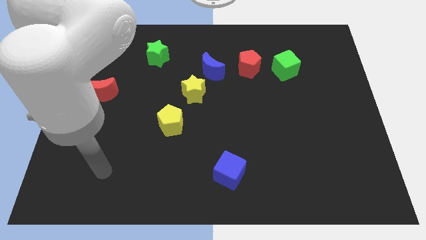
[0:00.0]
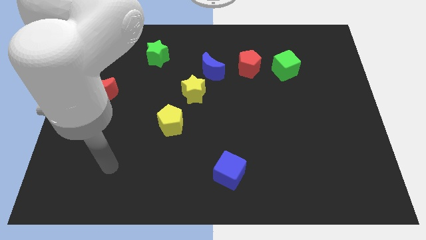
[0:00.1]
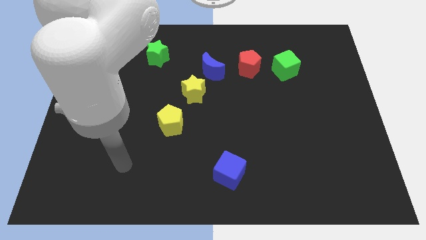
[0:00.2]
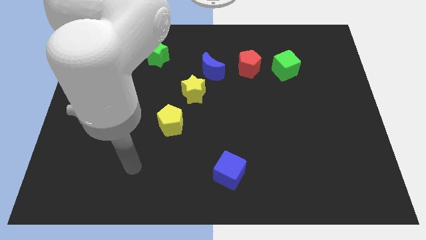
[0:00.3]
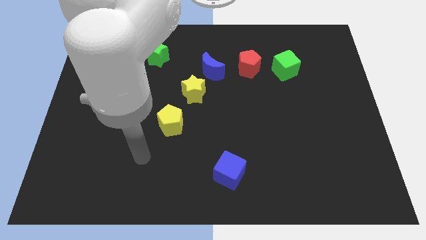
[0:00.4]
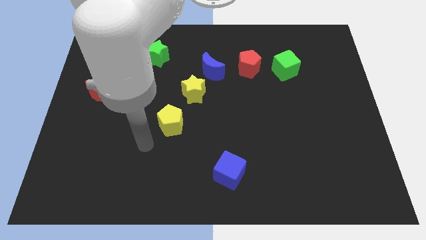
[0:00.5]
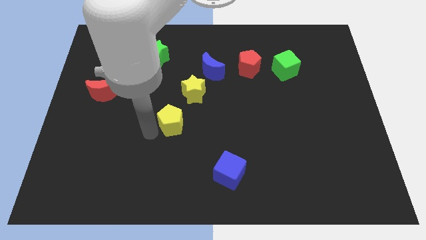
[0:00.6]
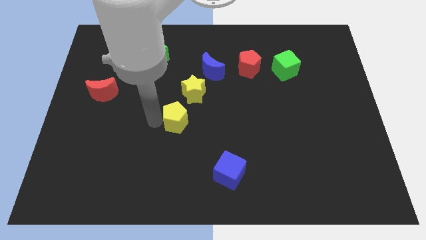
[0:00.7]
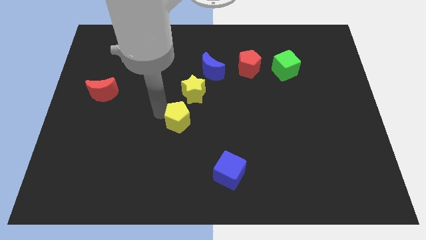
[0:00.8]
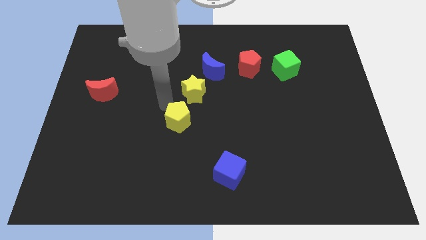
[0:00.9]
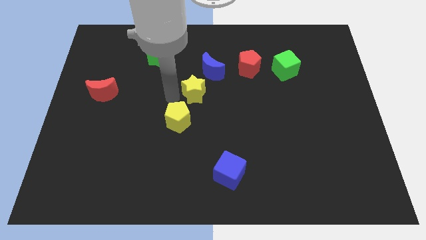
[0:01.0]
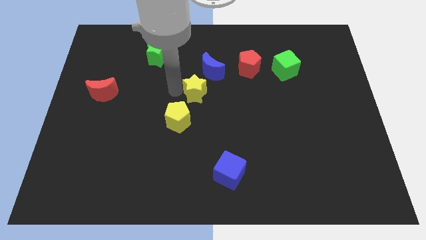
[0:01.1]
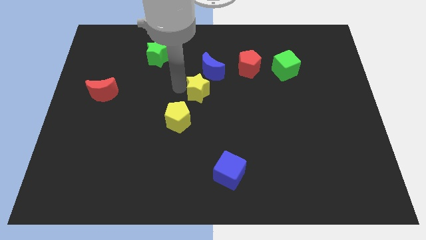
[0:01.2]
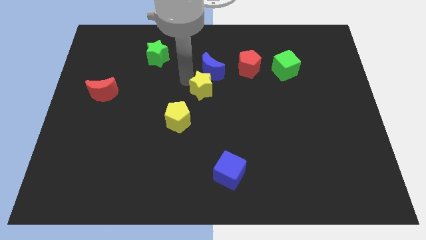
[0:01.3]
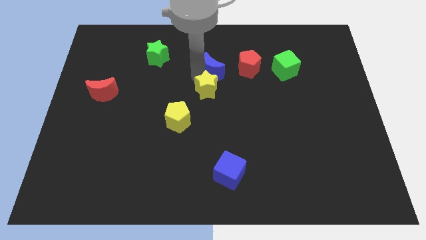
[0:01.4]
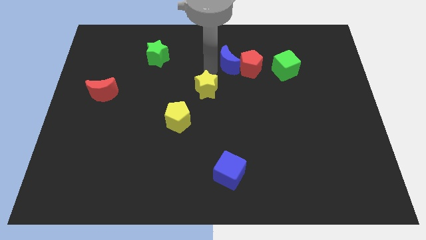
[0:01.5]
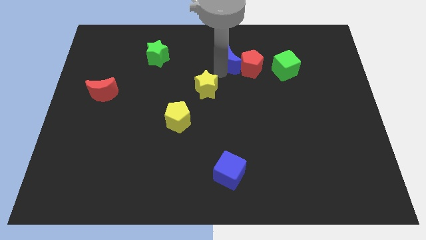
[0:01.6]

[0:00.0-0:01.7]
pull the yellow star apart from the blue moon

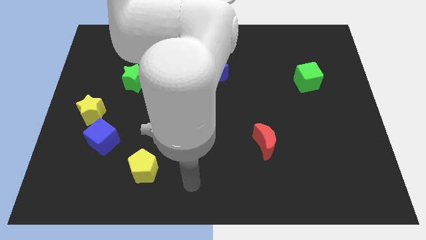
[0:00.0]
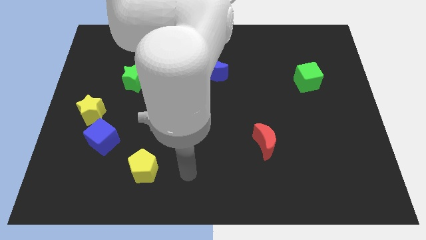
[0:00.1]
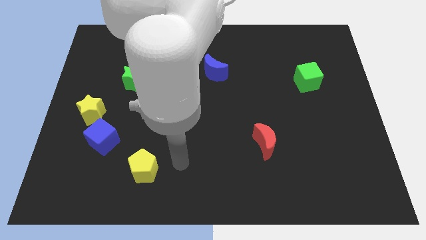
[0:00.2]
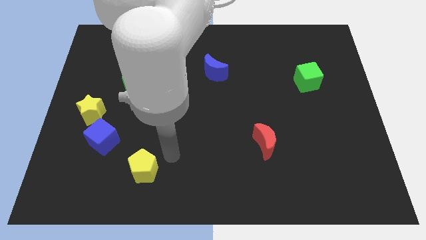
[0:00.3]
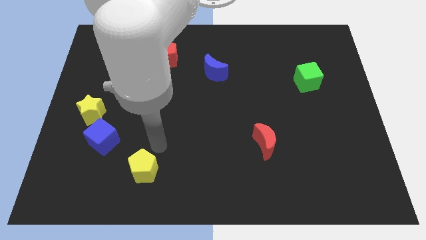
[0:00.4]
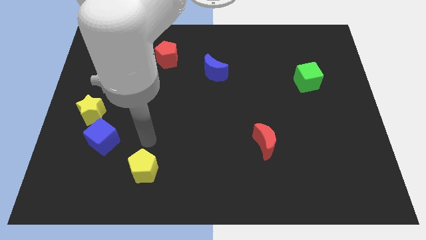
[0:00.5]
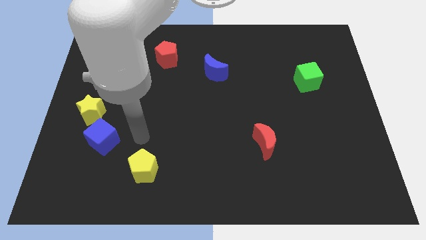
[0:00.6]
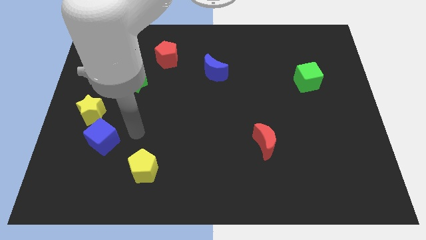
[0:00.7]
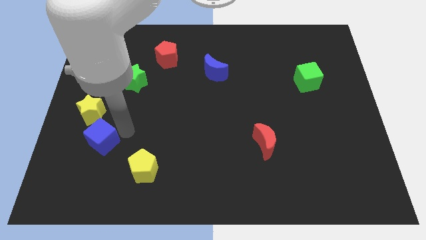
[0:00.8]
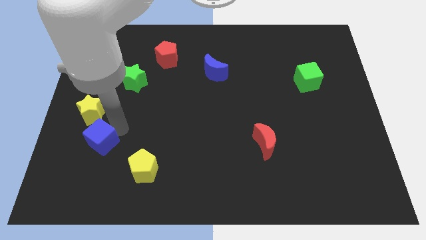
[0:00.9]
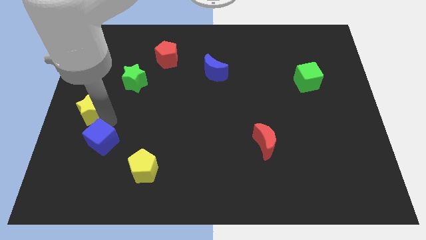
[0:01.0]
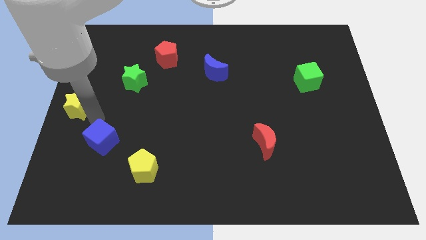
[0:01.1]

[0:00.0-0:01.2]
separate the blue cube from the yellow star

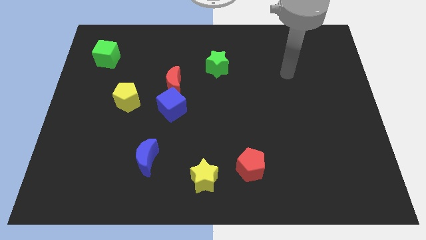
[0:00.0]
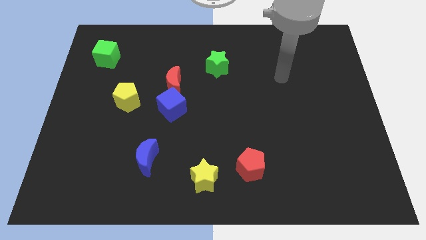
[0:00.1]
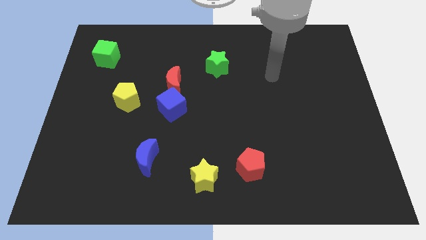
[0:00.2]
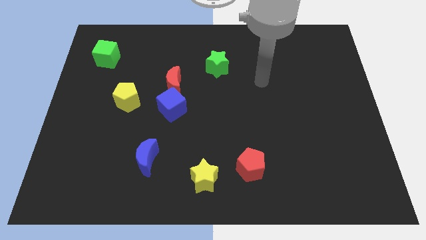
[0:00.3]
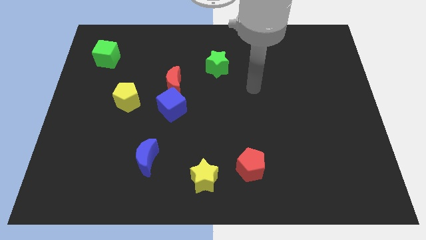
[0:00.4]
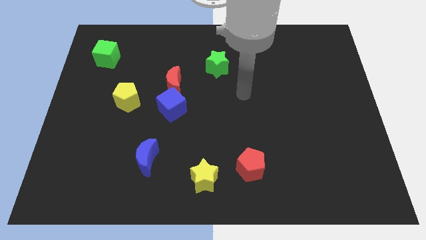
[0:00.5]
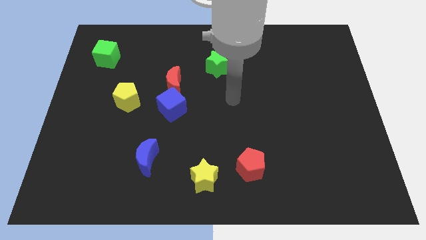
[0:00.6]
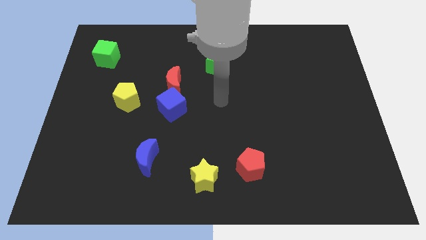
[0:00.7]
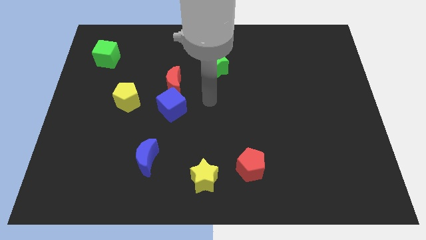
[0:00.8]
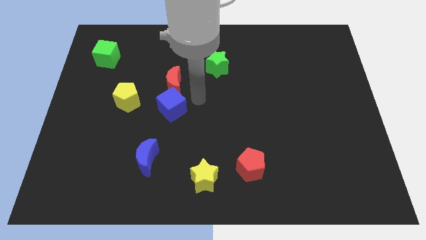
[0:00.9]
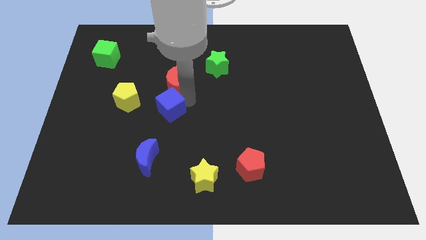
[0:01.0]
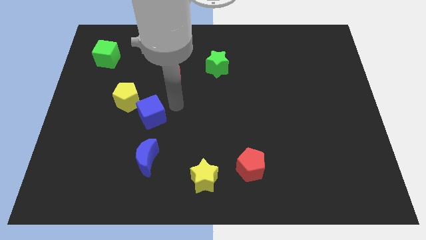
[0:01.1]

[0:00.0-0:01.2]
pull the red moon apart from the blue cube

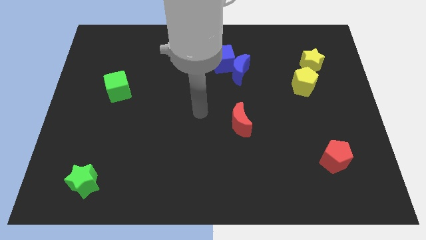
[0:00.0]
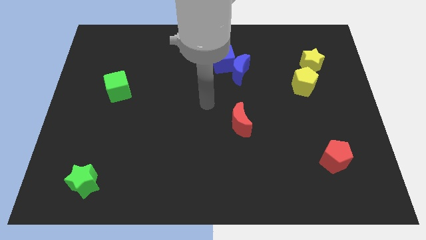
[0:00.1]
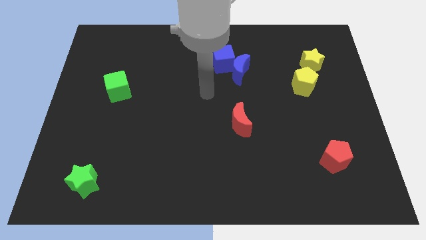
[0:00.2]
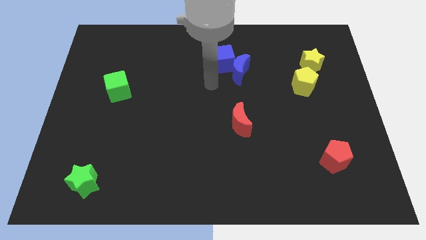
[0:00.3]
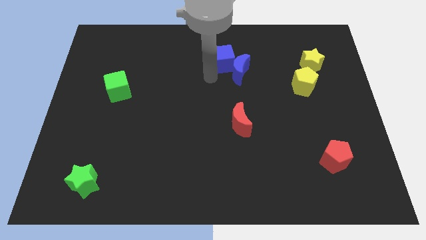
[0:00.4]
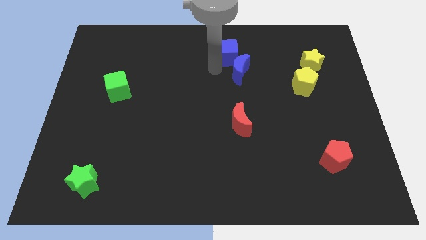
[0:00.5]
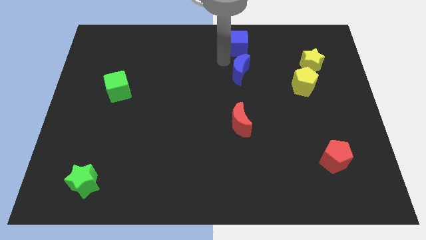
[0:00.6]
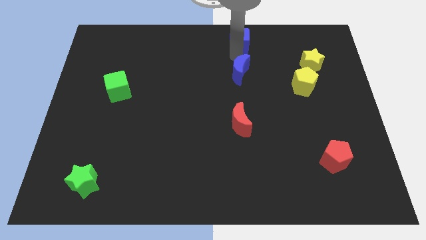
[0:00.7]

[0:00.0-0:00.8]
move the blue moon away from the blue cube

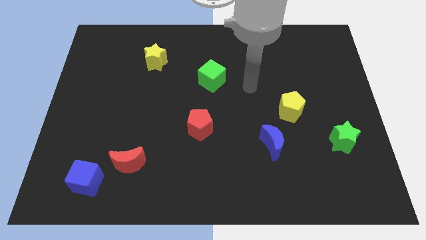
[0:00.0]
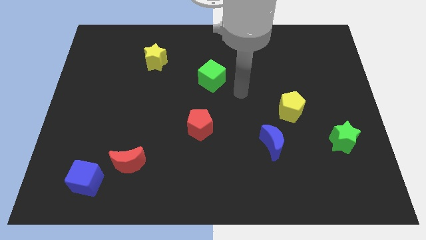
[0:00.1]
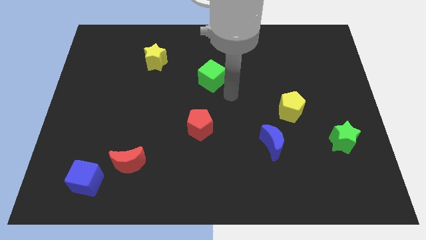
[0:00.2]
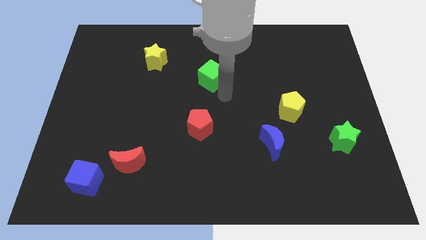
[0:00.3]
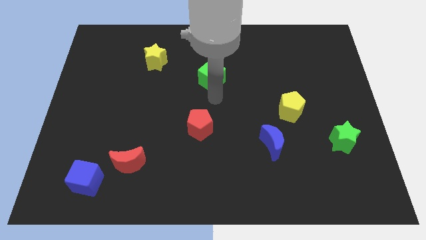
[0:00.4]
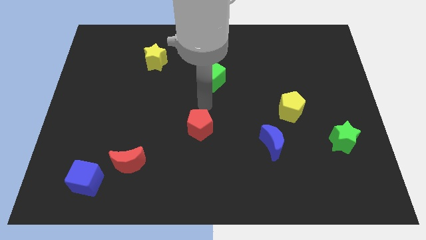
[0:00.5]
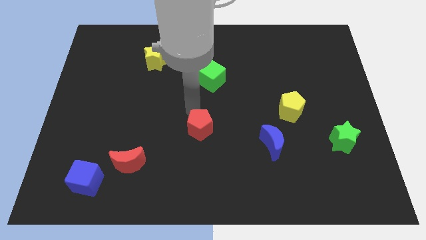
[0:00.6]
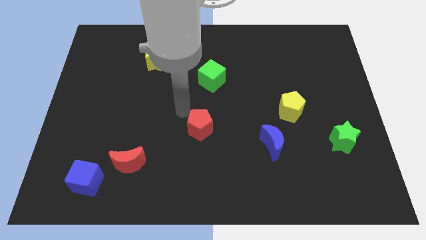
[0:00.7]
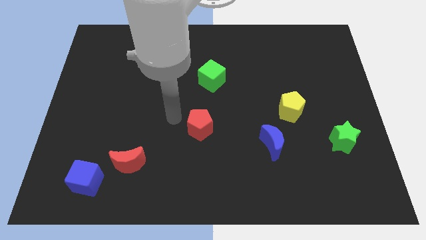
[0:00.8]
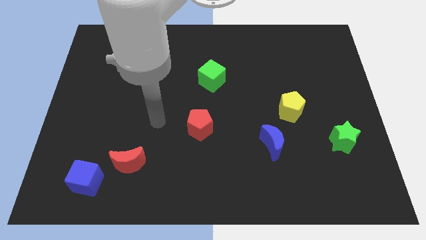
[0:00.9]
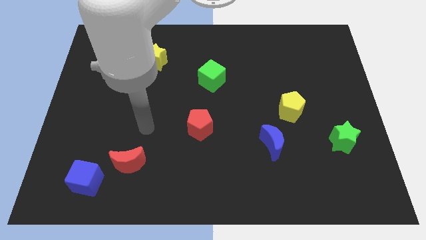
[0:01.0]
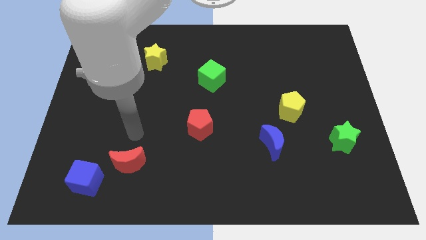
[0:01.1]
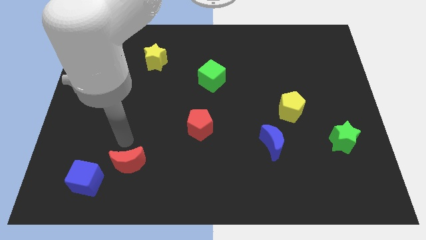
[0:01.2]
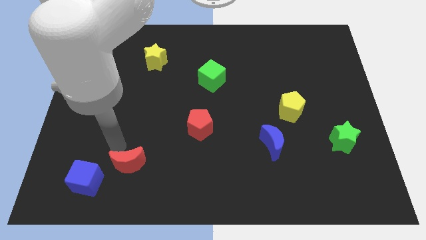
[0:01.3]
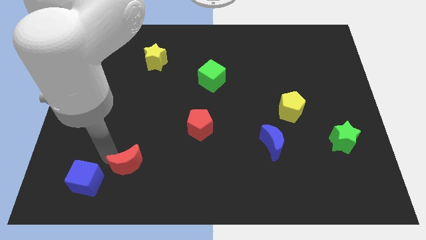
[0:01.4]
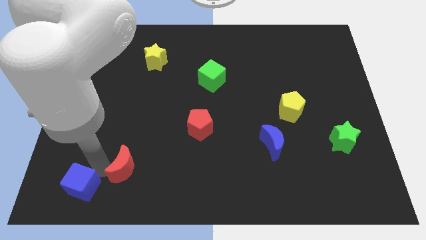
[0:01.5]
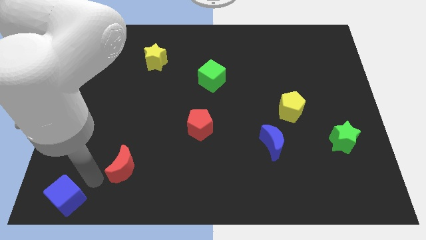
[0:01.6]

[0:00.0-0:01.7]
move the red moon away from the blue cube

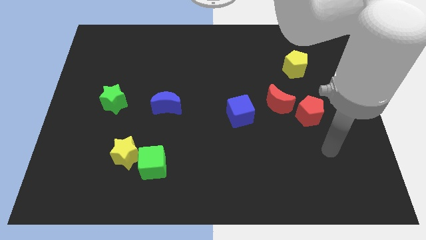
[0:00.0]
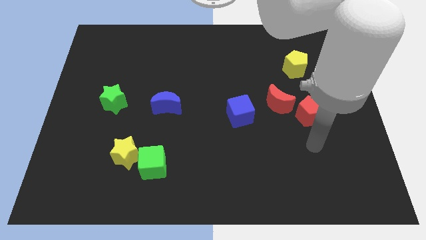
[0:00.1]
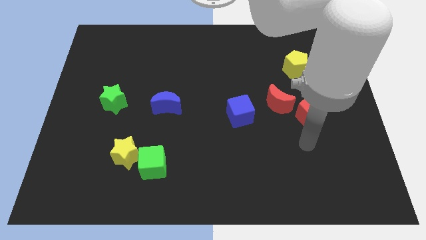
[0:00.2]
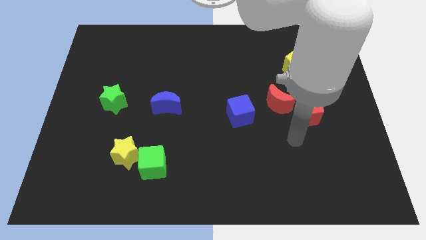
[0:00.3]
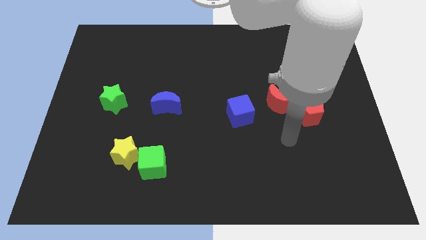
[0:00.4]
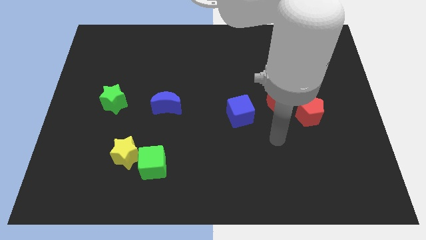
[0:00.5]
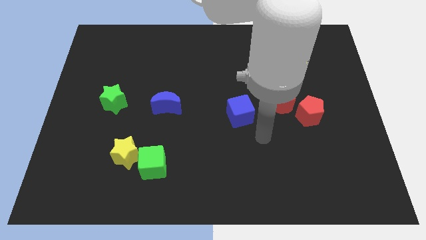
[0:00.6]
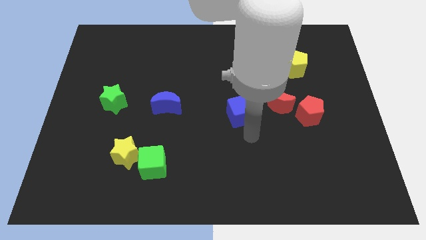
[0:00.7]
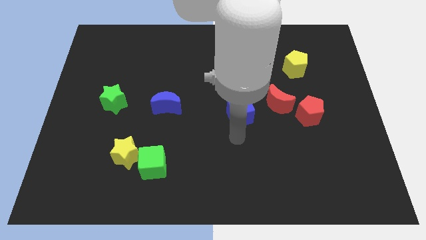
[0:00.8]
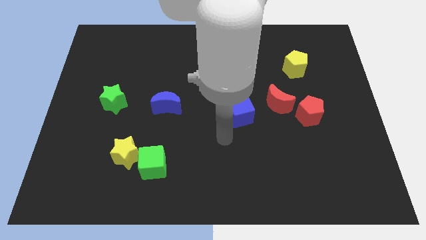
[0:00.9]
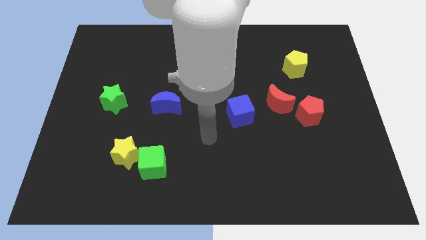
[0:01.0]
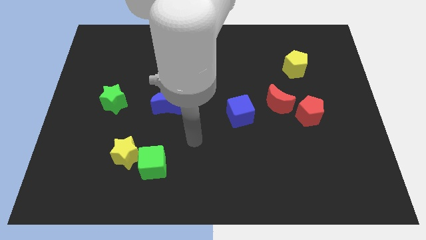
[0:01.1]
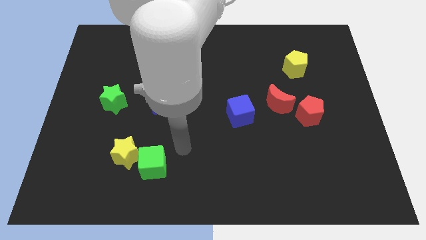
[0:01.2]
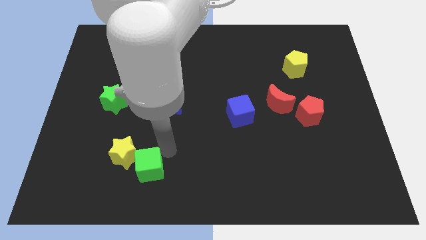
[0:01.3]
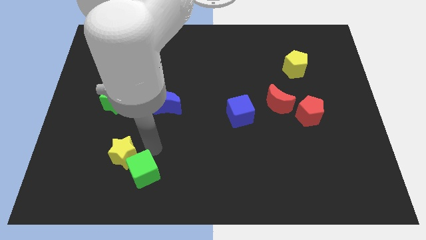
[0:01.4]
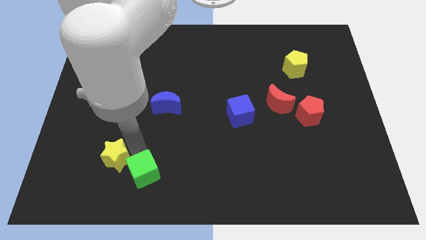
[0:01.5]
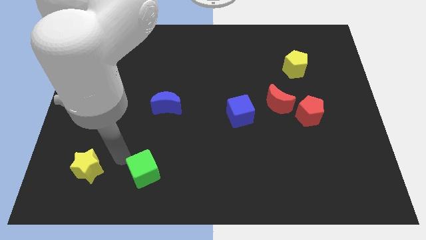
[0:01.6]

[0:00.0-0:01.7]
separate the green cube from the yellow star

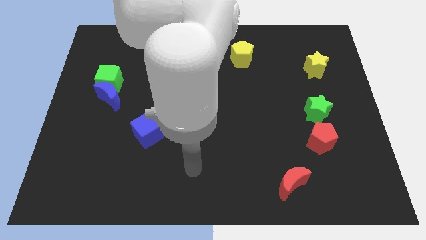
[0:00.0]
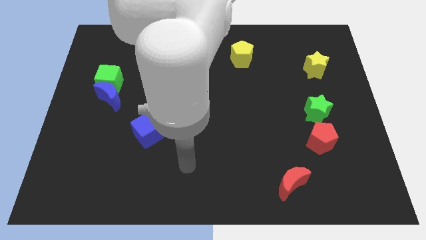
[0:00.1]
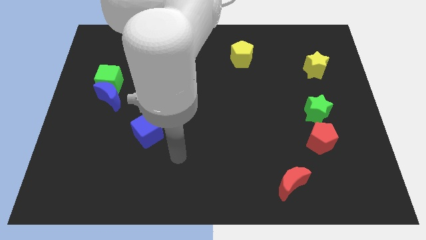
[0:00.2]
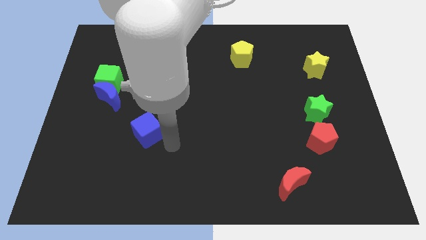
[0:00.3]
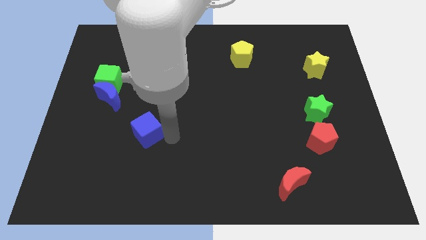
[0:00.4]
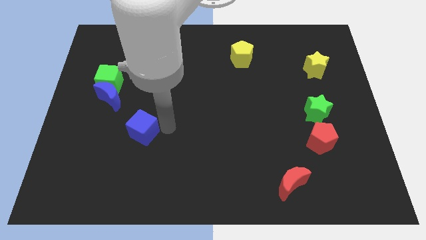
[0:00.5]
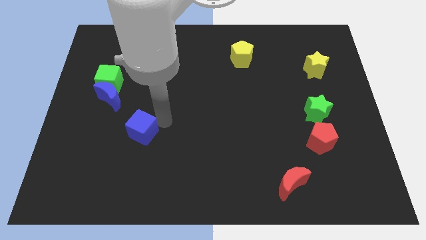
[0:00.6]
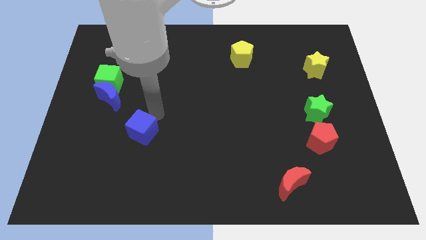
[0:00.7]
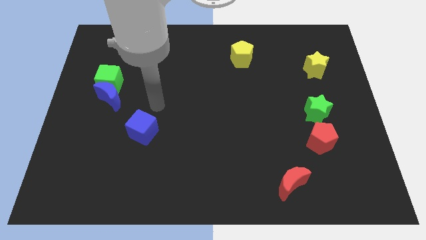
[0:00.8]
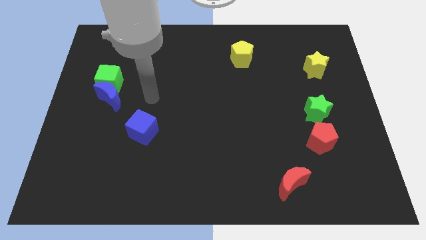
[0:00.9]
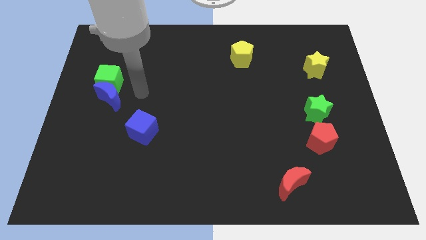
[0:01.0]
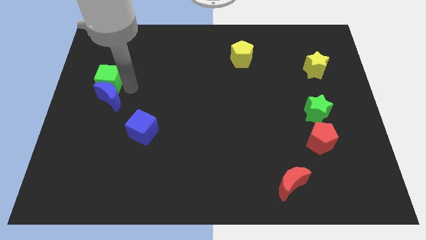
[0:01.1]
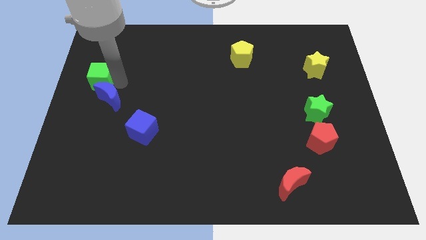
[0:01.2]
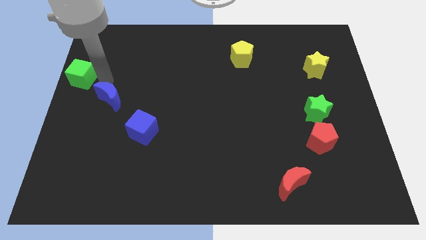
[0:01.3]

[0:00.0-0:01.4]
pull the blue moon apart from the green cube
